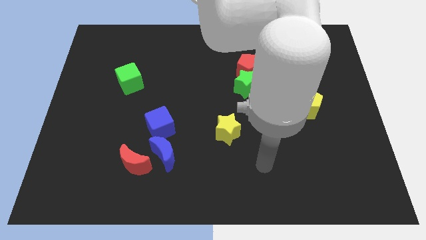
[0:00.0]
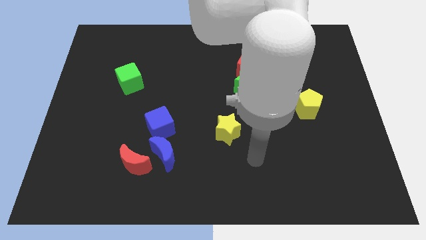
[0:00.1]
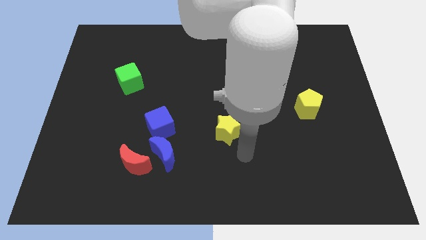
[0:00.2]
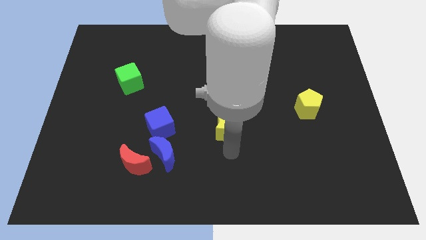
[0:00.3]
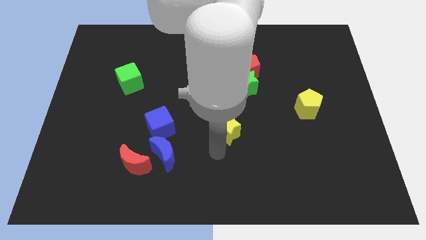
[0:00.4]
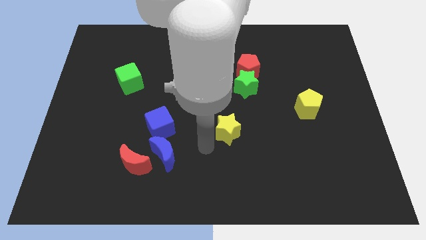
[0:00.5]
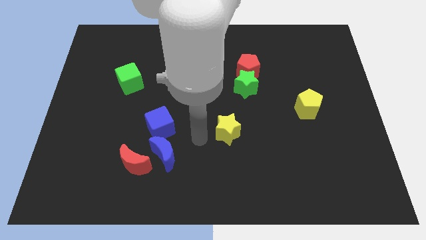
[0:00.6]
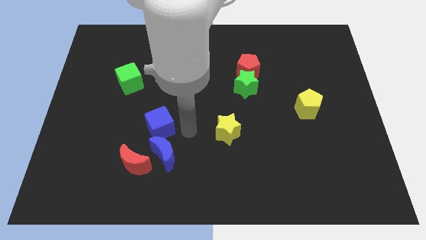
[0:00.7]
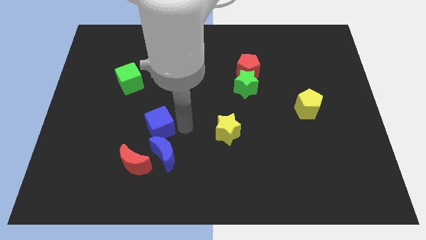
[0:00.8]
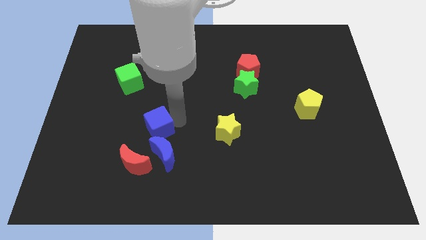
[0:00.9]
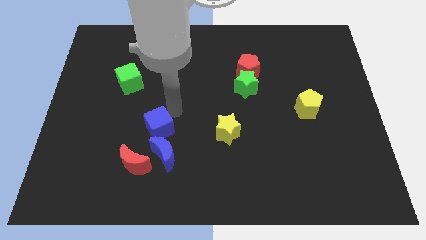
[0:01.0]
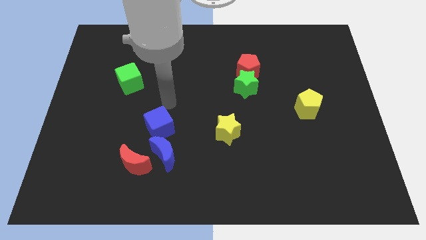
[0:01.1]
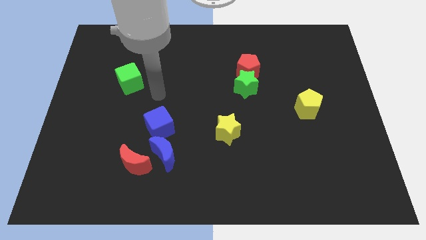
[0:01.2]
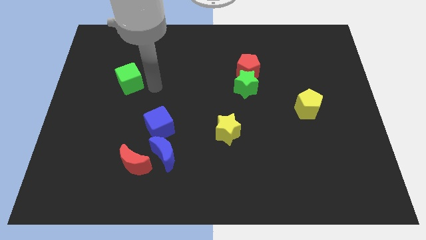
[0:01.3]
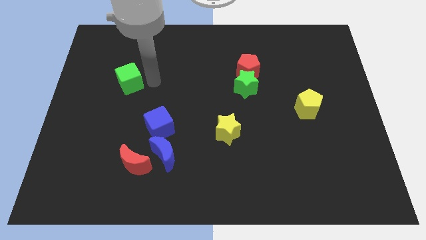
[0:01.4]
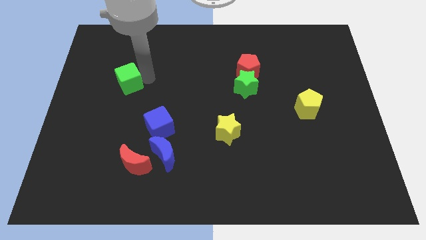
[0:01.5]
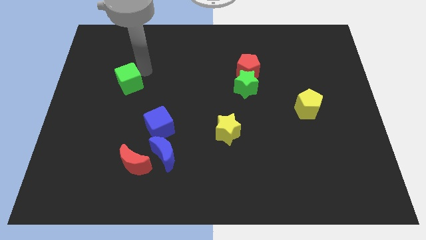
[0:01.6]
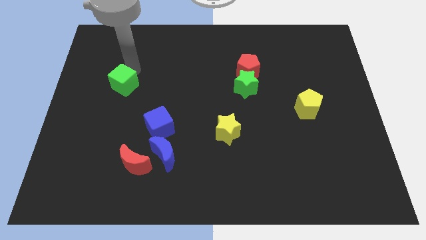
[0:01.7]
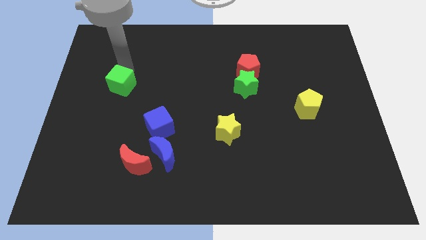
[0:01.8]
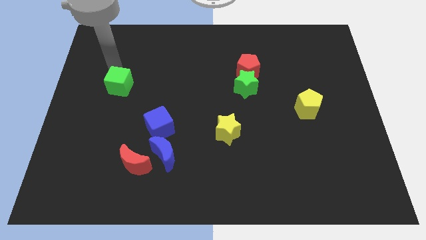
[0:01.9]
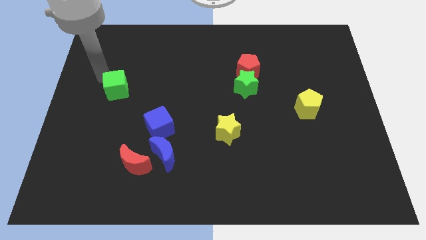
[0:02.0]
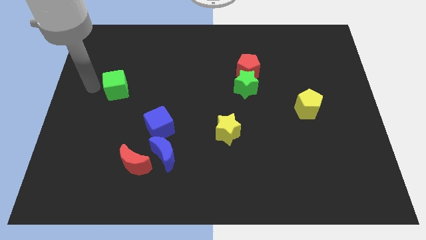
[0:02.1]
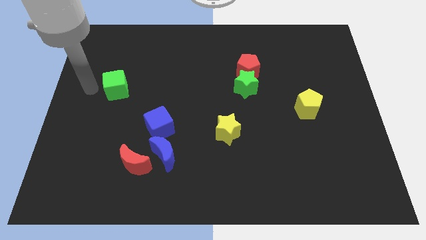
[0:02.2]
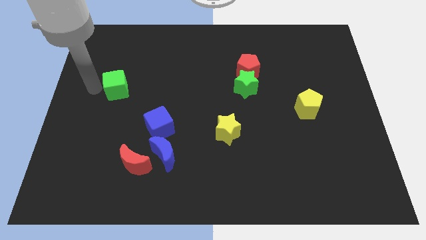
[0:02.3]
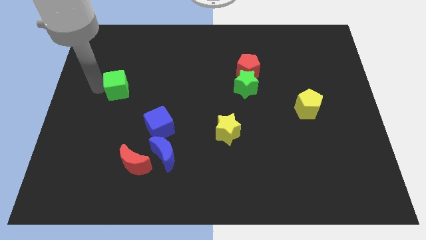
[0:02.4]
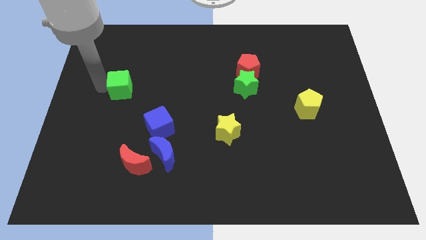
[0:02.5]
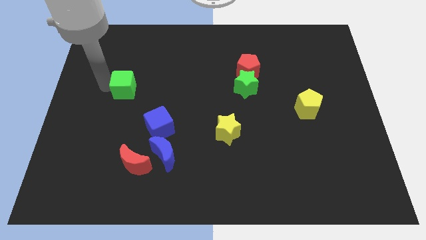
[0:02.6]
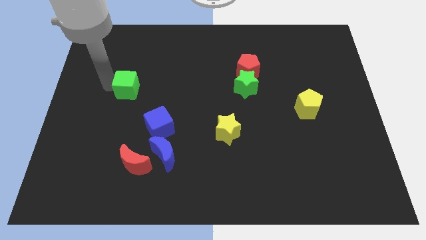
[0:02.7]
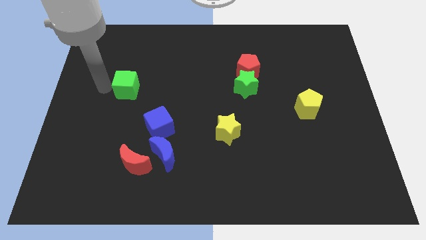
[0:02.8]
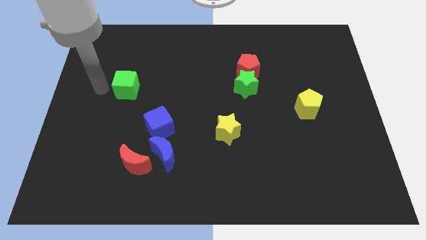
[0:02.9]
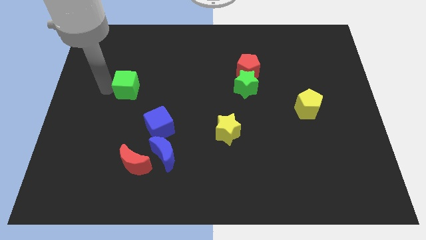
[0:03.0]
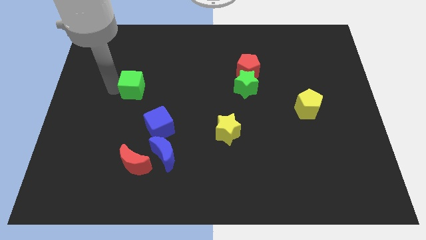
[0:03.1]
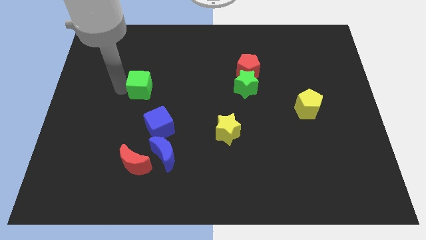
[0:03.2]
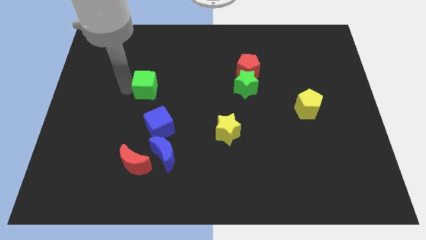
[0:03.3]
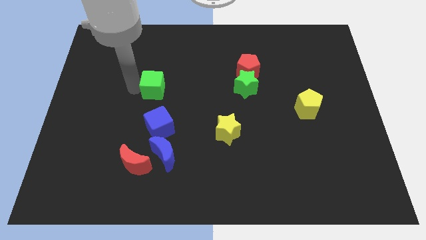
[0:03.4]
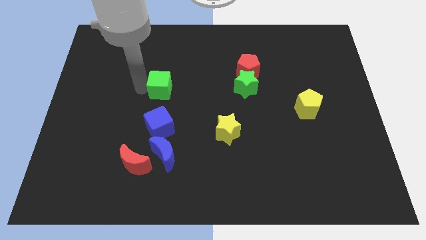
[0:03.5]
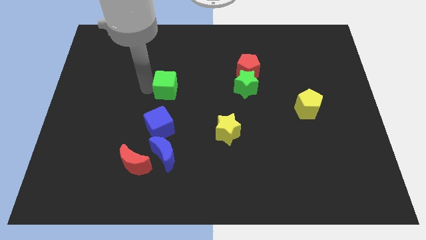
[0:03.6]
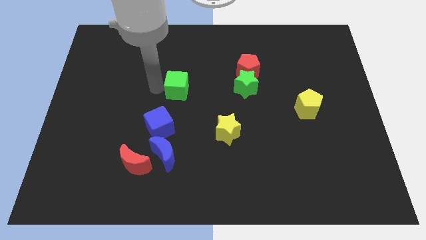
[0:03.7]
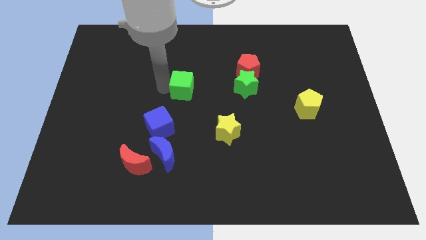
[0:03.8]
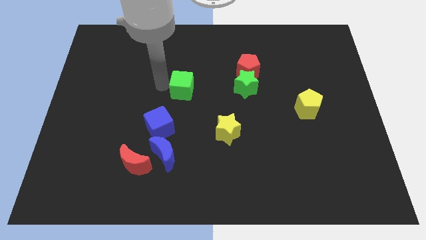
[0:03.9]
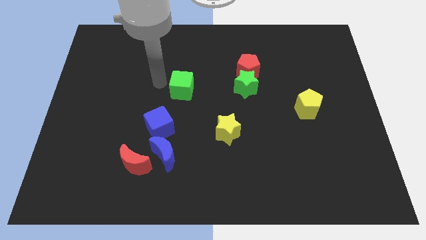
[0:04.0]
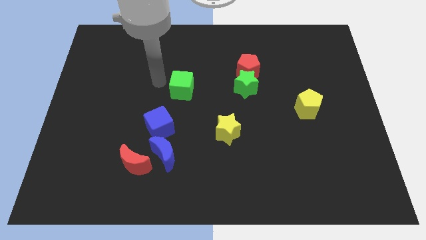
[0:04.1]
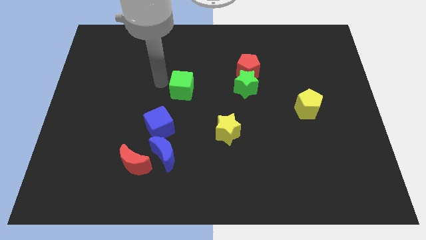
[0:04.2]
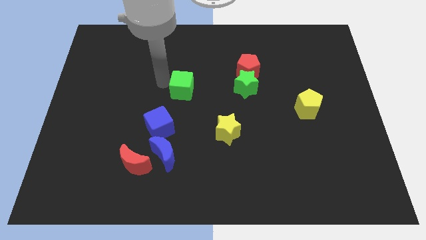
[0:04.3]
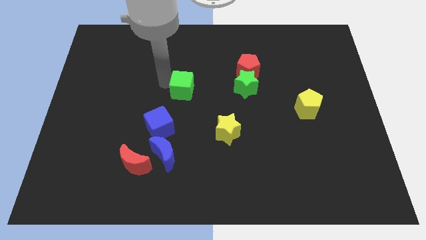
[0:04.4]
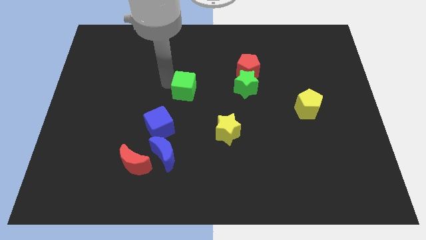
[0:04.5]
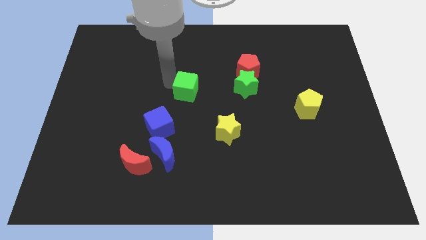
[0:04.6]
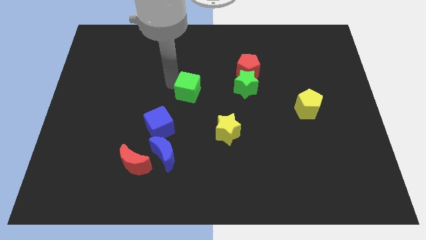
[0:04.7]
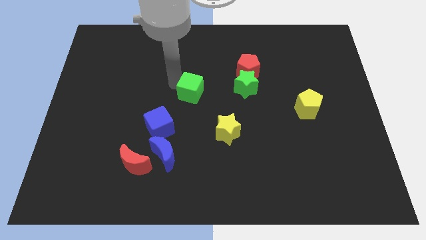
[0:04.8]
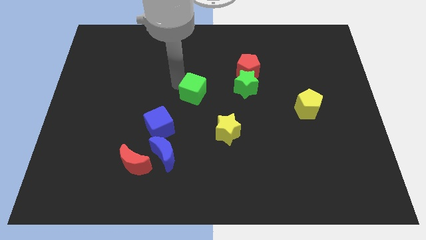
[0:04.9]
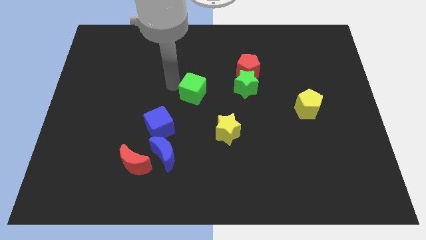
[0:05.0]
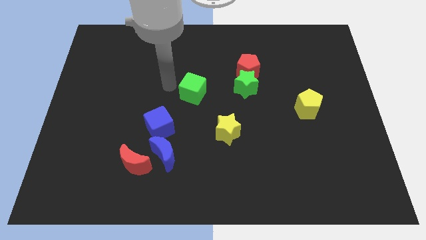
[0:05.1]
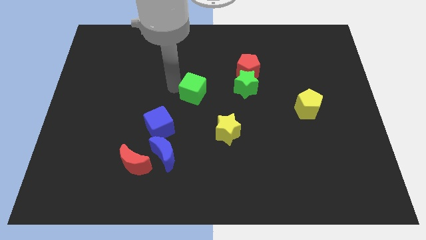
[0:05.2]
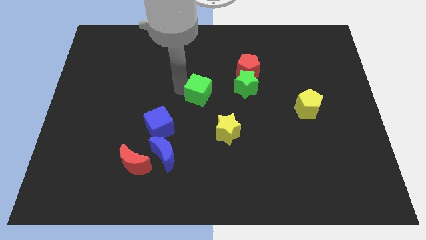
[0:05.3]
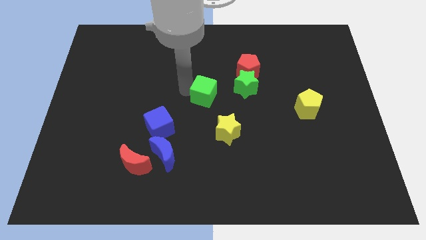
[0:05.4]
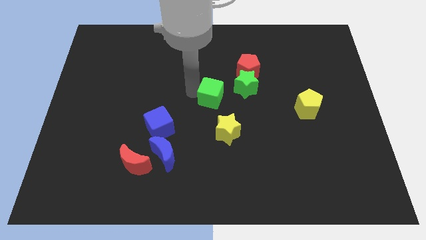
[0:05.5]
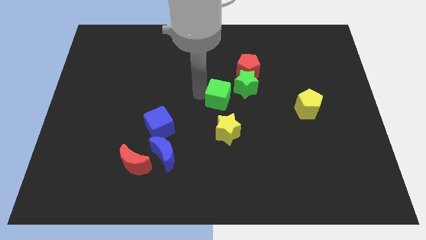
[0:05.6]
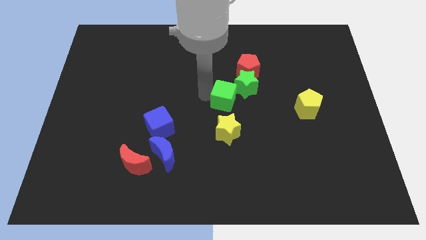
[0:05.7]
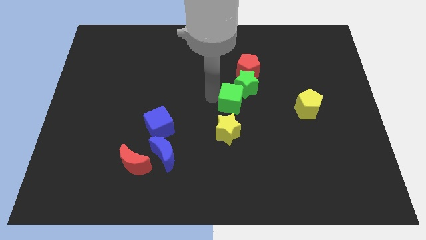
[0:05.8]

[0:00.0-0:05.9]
slide the green cube to the bottom side of the red pentagon

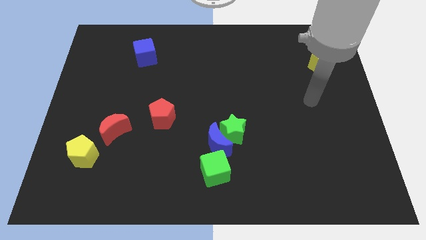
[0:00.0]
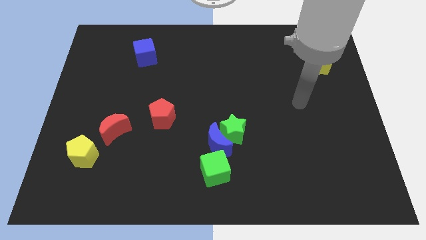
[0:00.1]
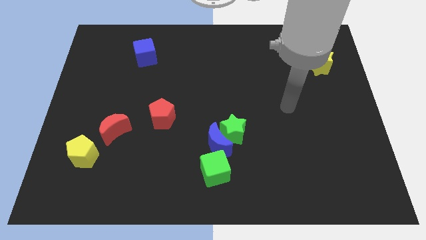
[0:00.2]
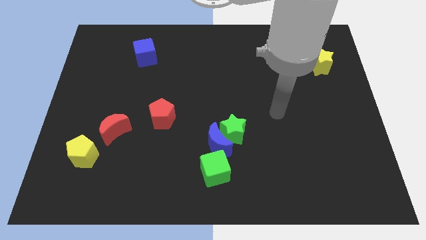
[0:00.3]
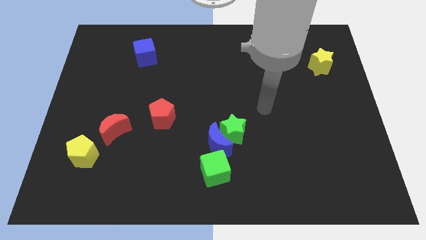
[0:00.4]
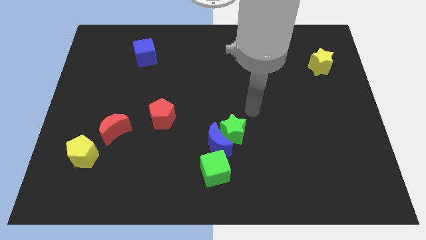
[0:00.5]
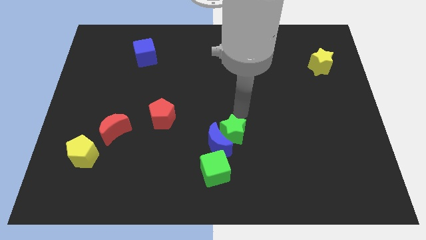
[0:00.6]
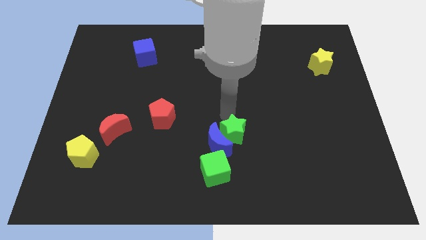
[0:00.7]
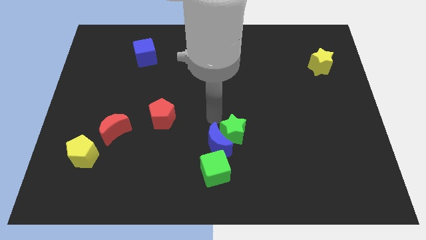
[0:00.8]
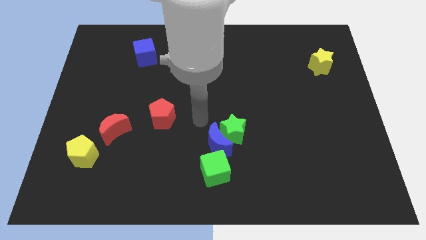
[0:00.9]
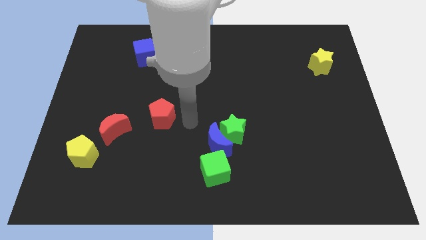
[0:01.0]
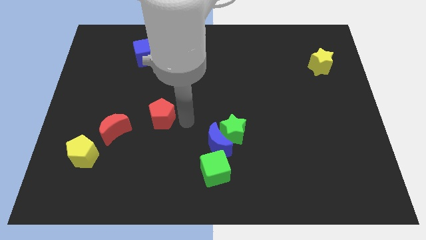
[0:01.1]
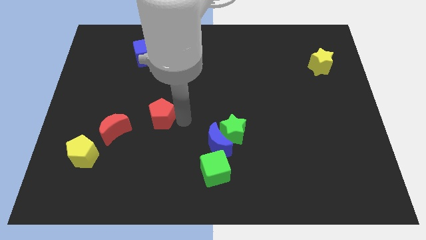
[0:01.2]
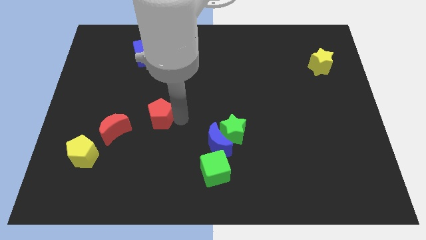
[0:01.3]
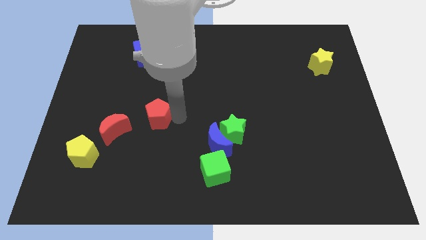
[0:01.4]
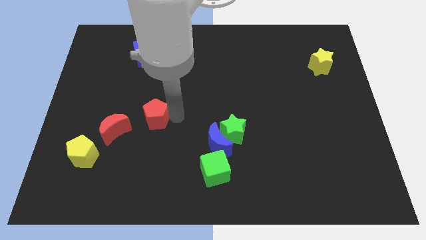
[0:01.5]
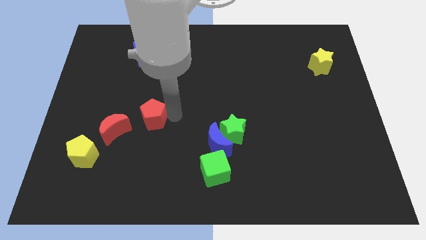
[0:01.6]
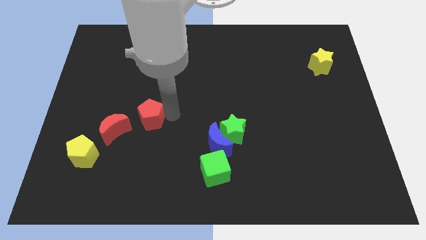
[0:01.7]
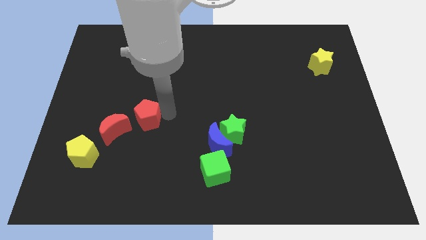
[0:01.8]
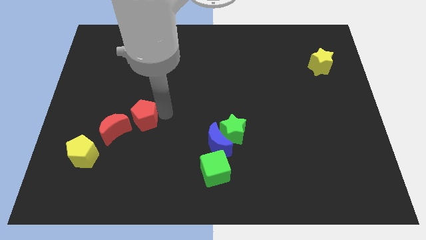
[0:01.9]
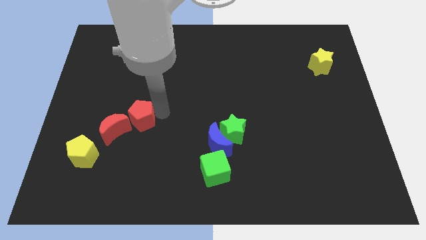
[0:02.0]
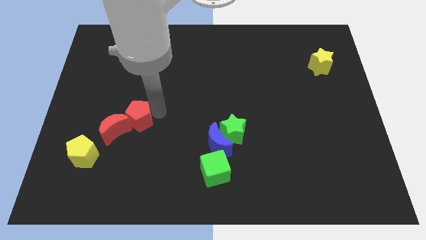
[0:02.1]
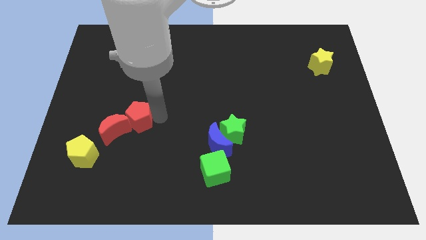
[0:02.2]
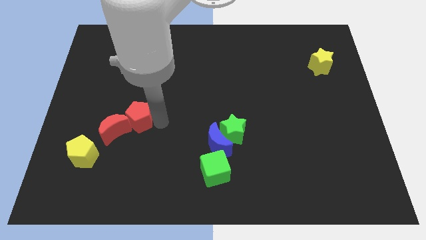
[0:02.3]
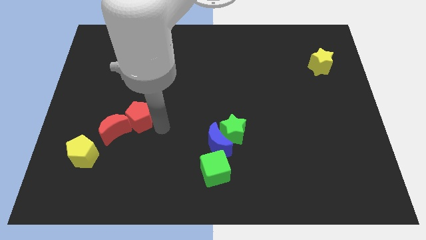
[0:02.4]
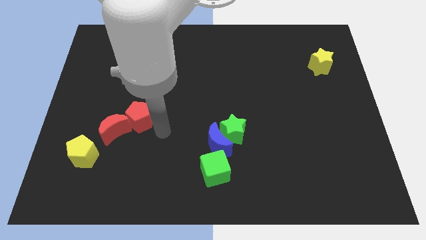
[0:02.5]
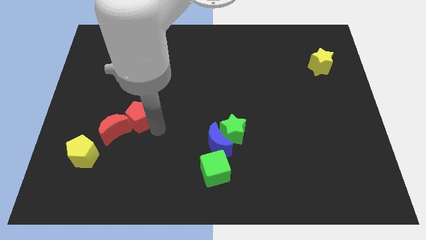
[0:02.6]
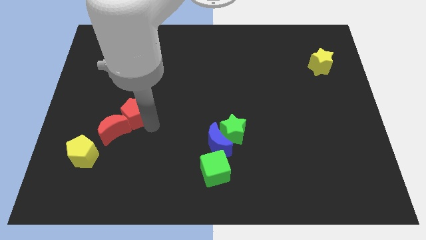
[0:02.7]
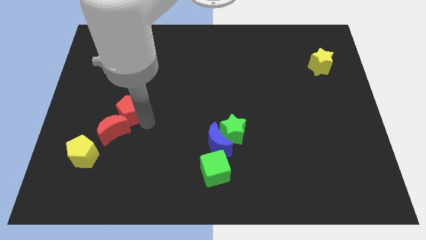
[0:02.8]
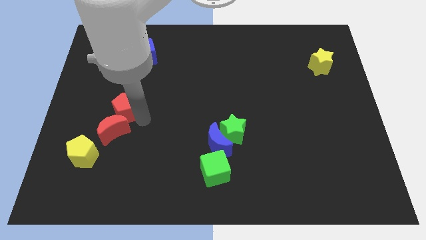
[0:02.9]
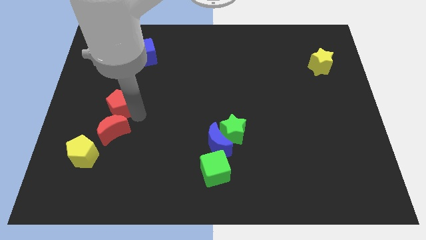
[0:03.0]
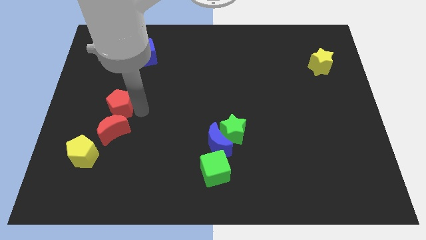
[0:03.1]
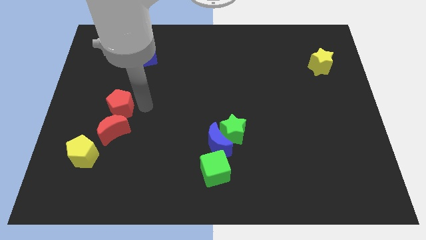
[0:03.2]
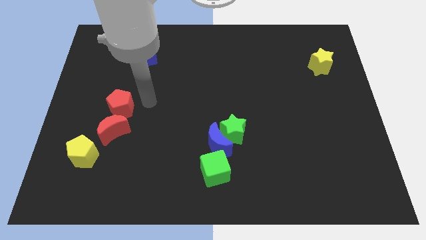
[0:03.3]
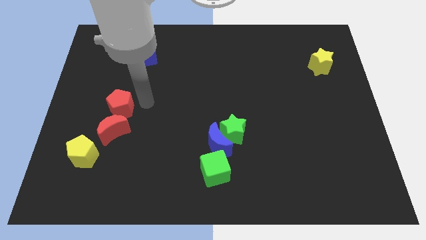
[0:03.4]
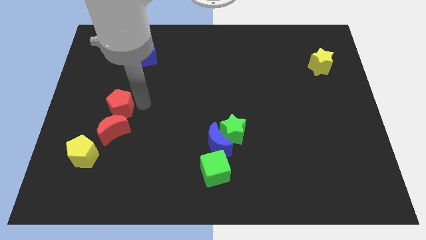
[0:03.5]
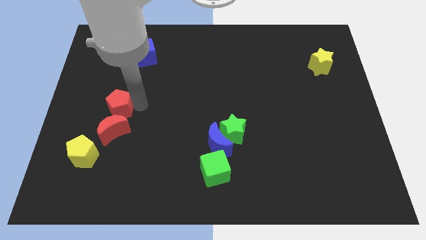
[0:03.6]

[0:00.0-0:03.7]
move the red pentagon to the top left side of the red moon
